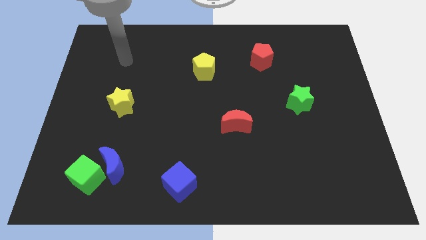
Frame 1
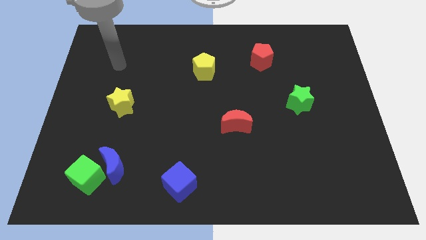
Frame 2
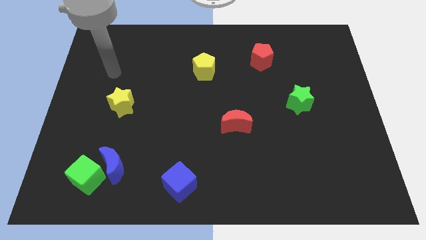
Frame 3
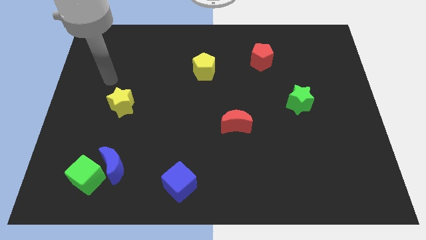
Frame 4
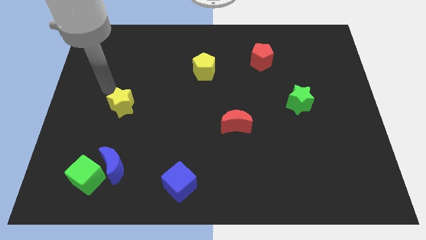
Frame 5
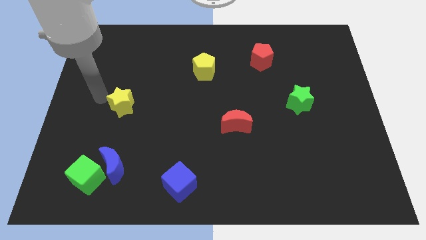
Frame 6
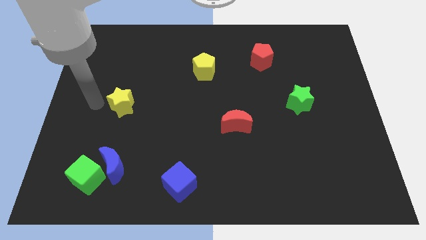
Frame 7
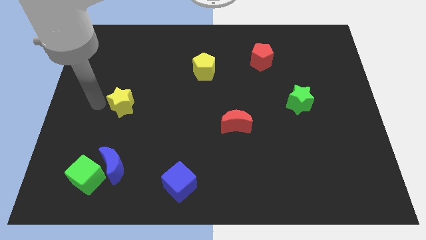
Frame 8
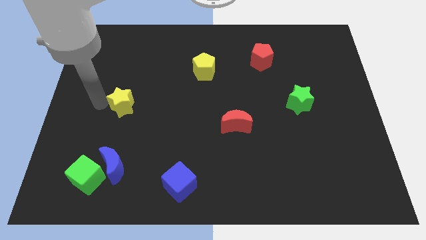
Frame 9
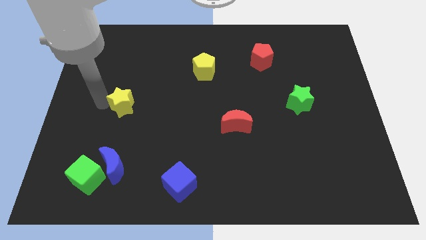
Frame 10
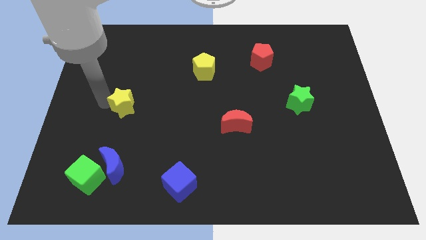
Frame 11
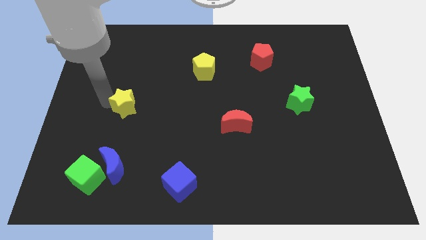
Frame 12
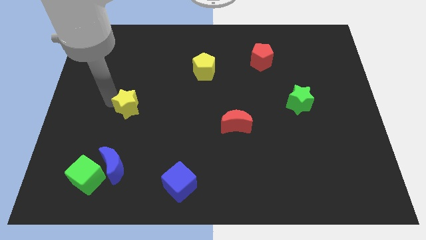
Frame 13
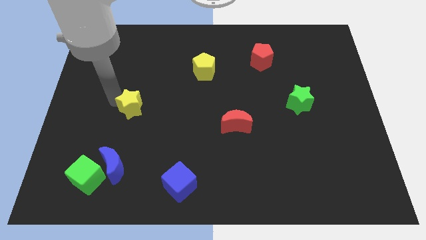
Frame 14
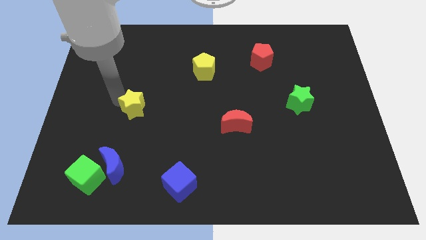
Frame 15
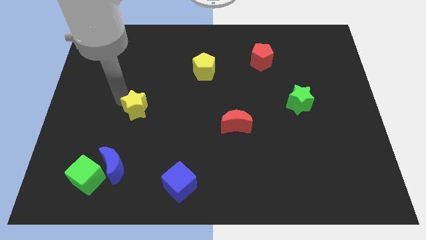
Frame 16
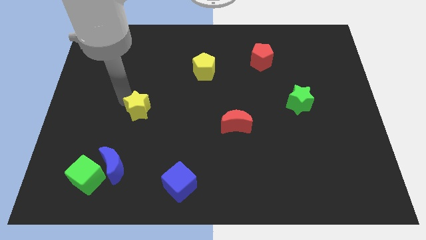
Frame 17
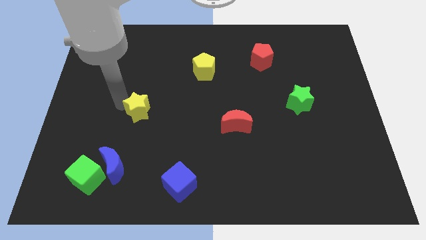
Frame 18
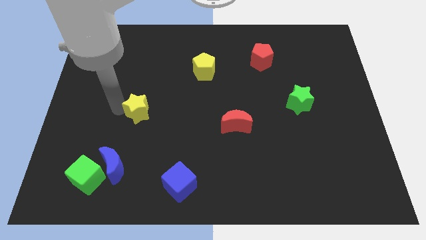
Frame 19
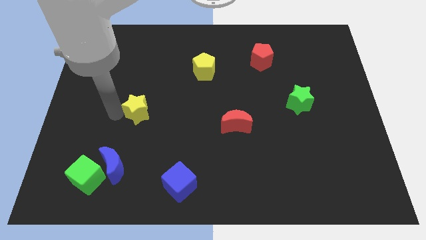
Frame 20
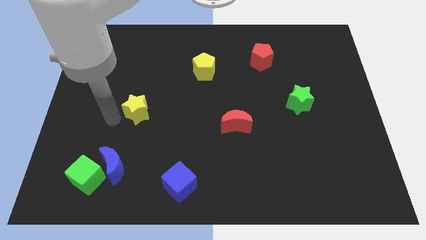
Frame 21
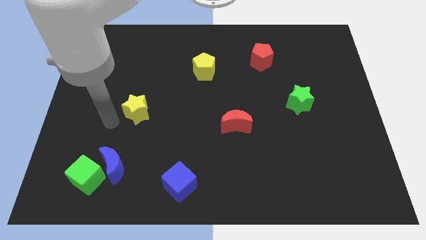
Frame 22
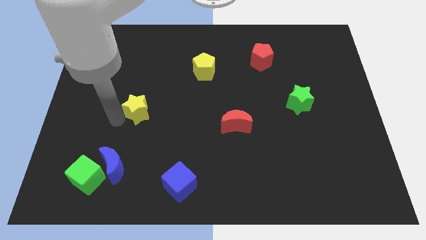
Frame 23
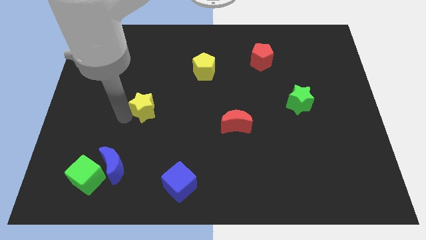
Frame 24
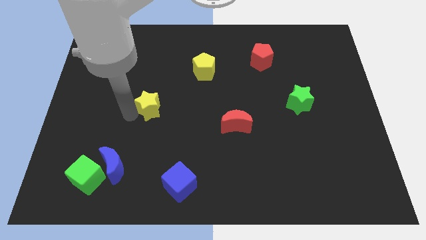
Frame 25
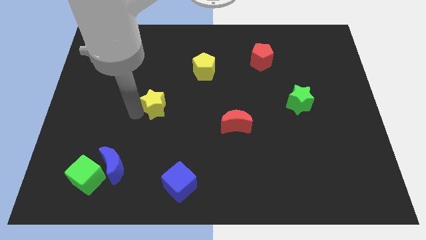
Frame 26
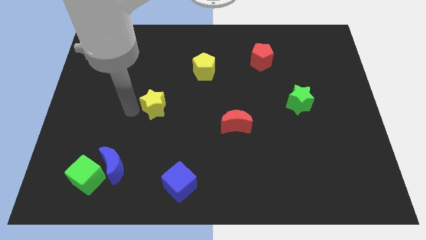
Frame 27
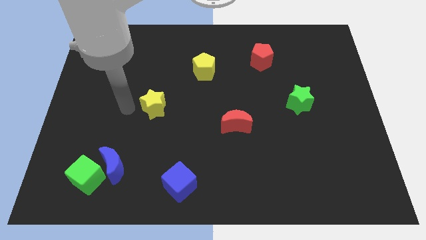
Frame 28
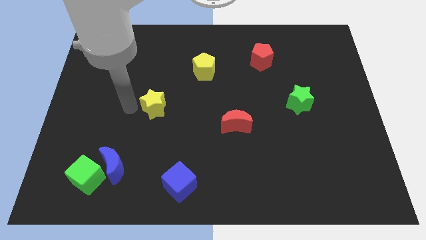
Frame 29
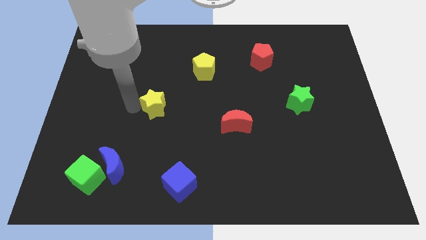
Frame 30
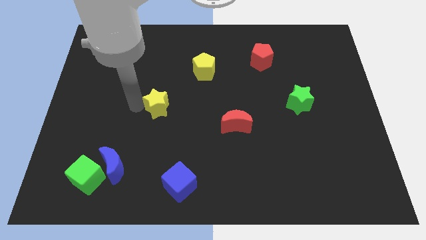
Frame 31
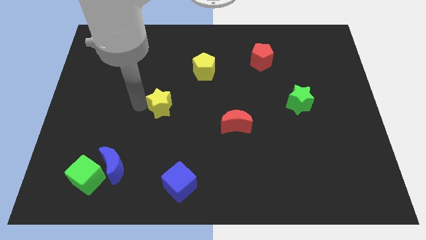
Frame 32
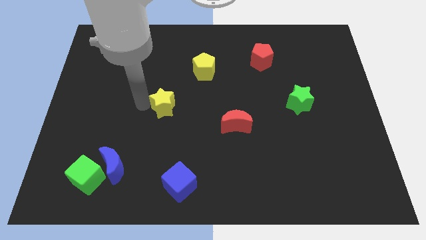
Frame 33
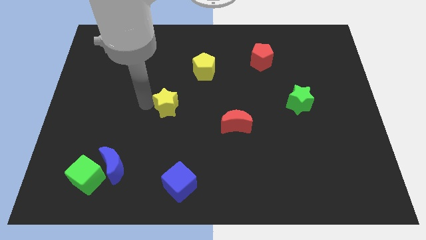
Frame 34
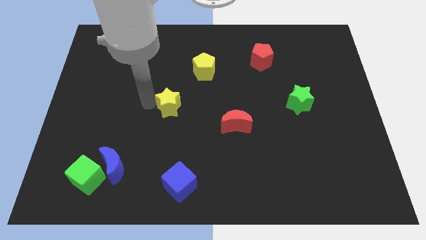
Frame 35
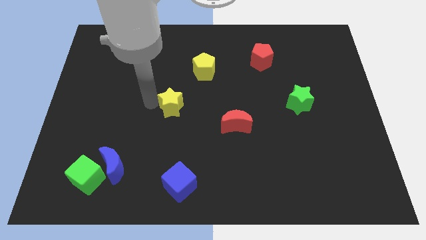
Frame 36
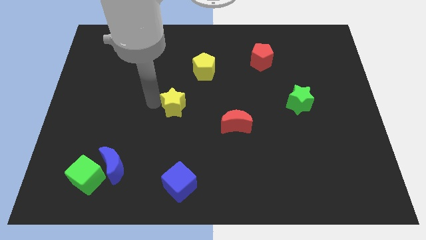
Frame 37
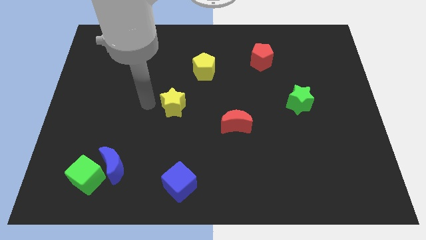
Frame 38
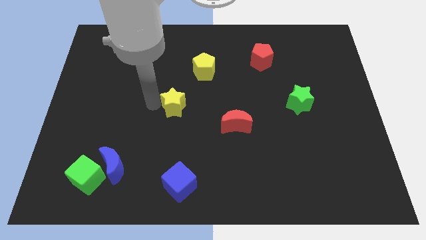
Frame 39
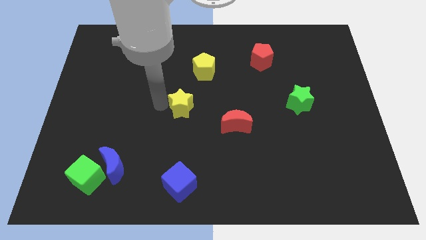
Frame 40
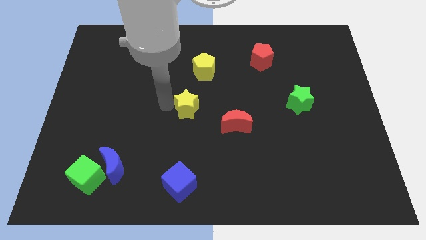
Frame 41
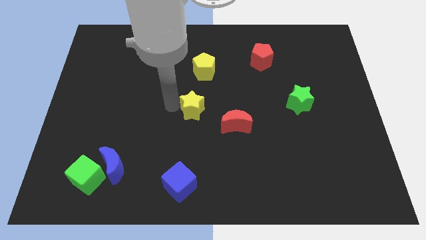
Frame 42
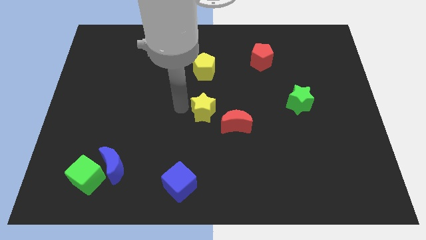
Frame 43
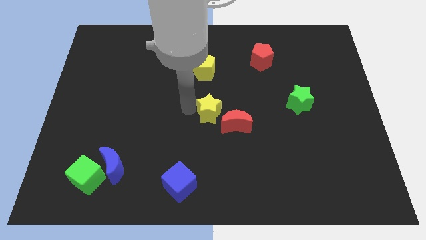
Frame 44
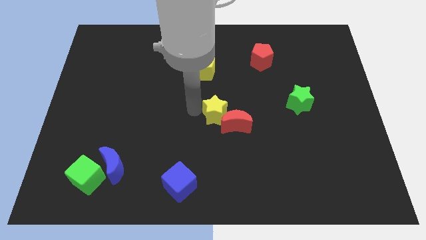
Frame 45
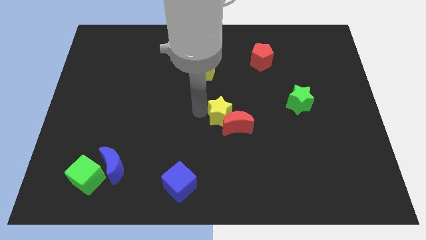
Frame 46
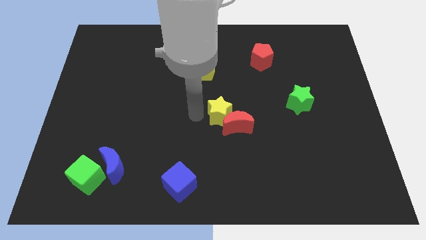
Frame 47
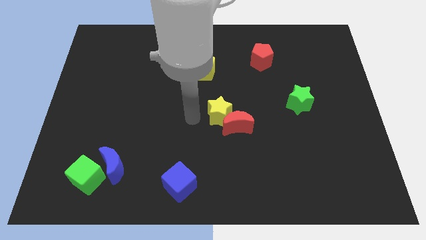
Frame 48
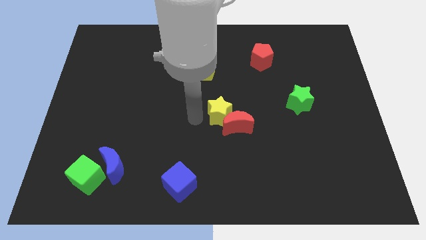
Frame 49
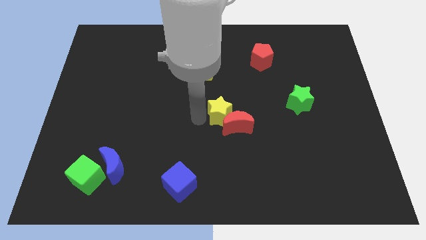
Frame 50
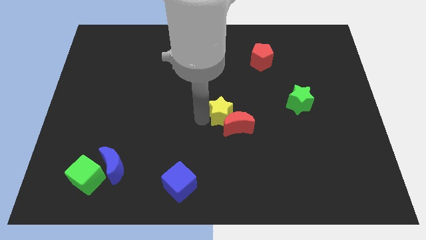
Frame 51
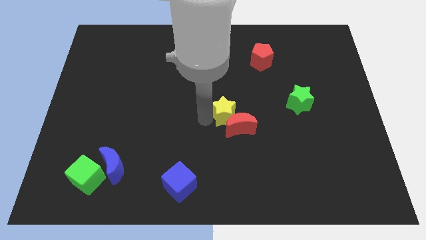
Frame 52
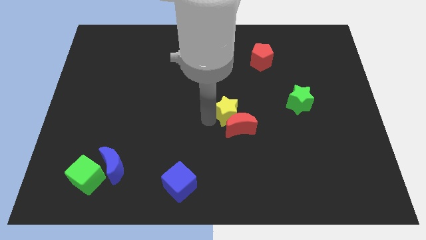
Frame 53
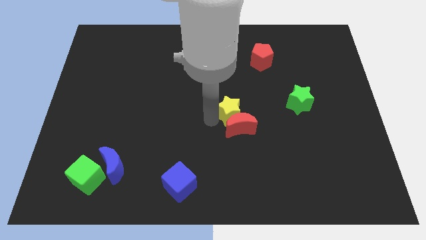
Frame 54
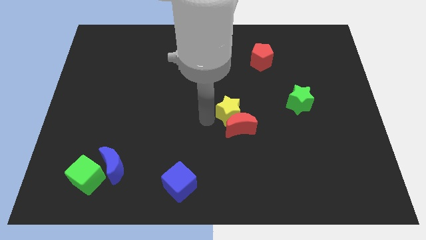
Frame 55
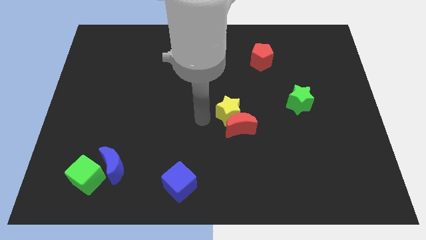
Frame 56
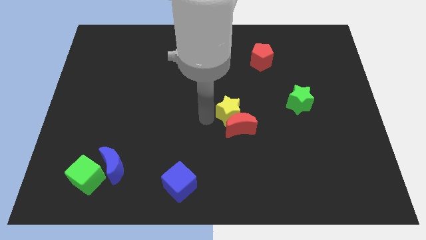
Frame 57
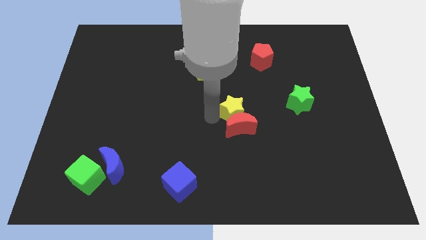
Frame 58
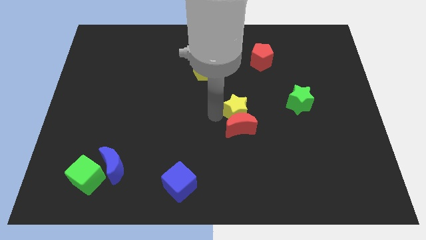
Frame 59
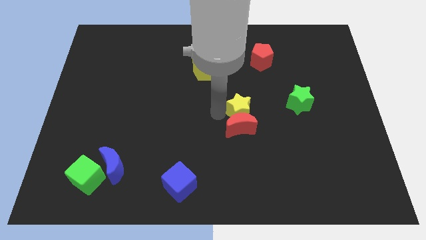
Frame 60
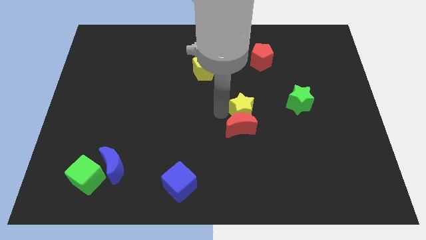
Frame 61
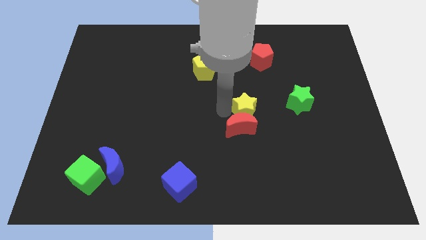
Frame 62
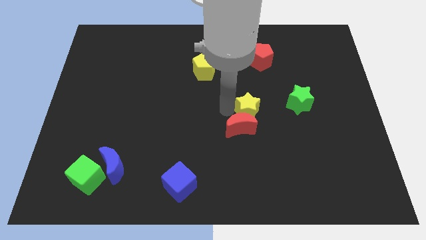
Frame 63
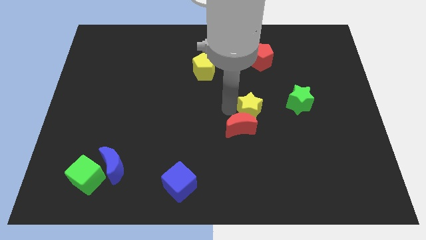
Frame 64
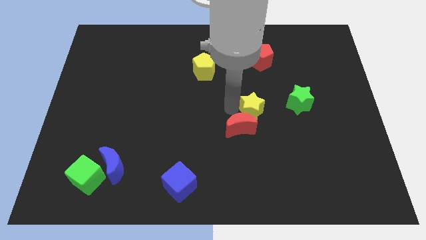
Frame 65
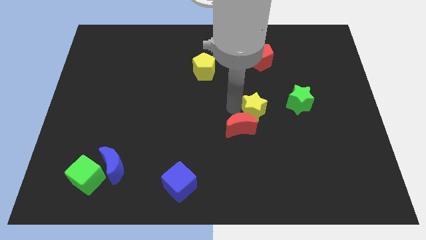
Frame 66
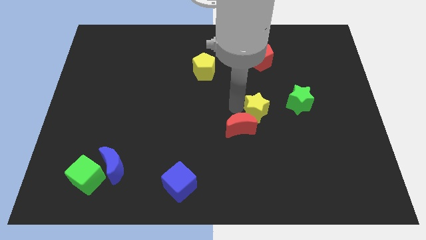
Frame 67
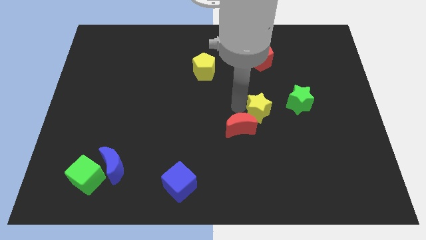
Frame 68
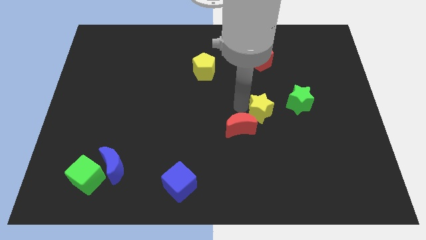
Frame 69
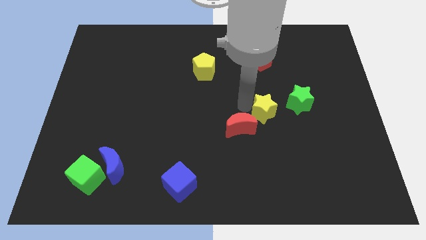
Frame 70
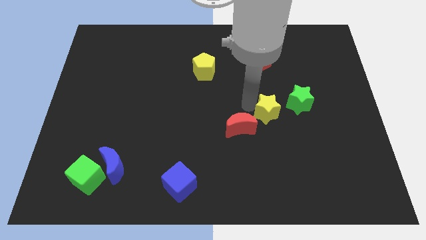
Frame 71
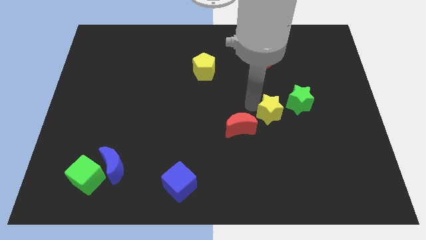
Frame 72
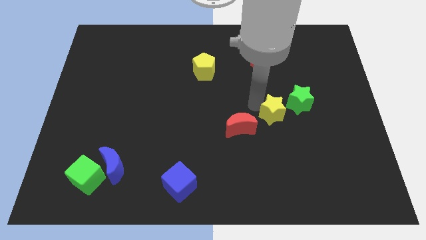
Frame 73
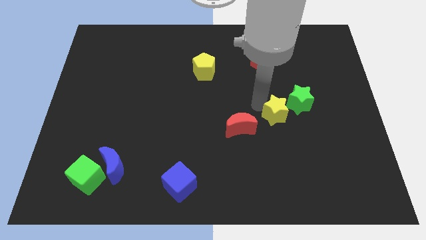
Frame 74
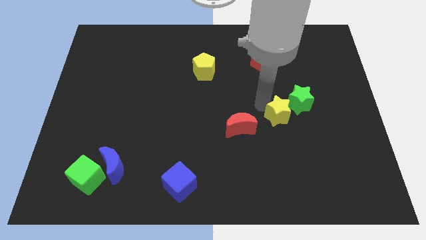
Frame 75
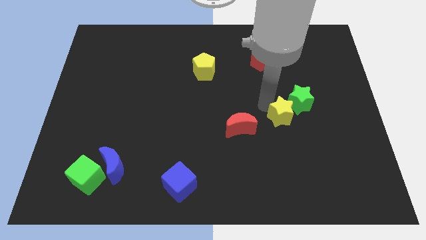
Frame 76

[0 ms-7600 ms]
move the yellow star to the bottom of the green star

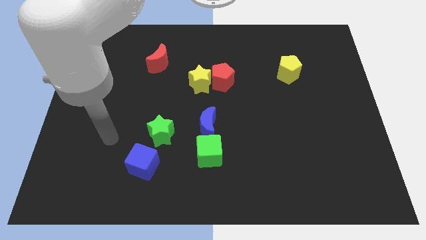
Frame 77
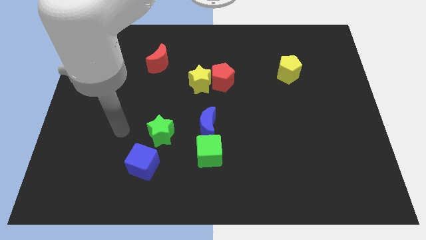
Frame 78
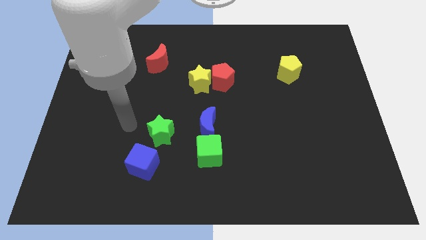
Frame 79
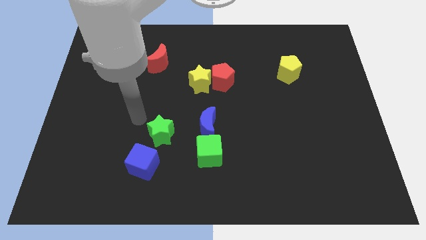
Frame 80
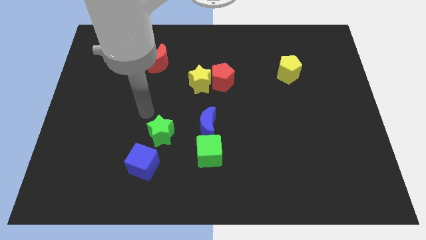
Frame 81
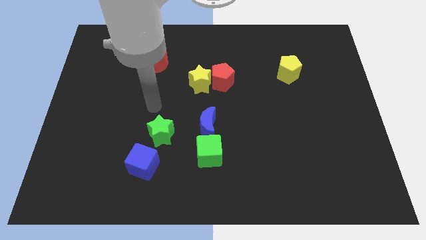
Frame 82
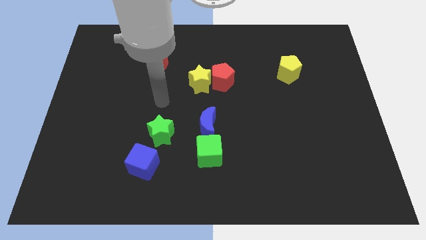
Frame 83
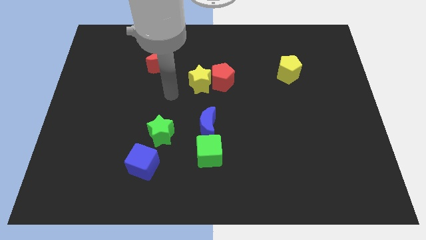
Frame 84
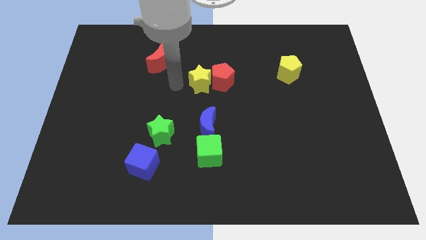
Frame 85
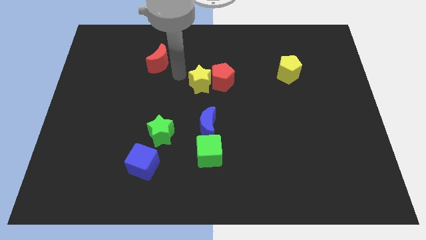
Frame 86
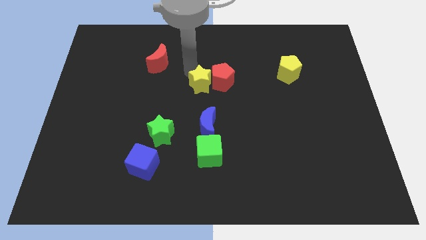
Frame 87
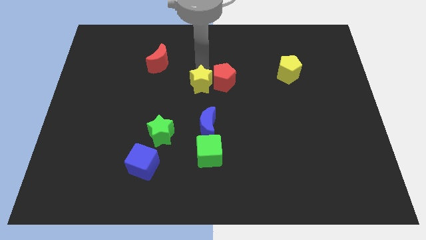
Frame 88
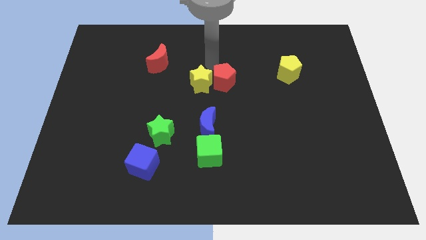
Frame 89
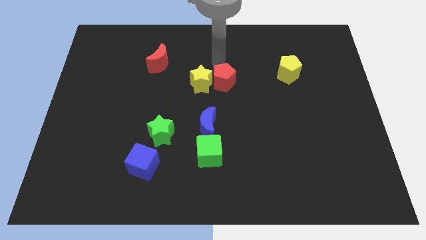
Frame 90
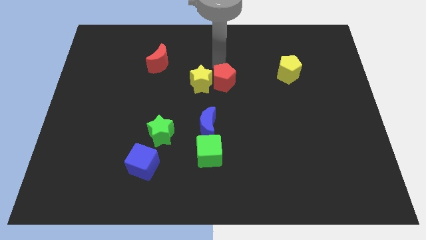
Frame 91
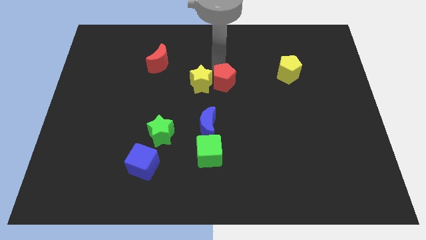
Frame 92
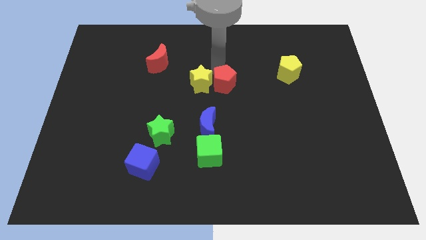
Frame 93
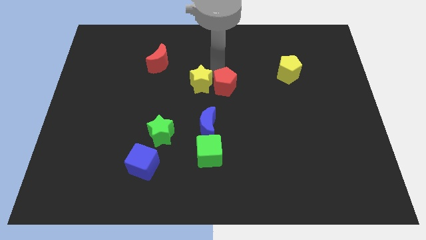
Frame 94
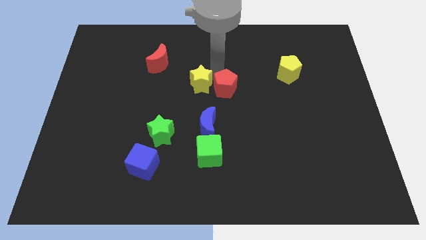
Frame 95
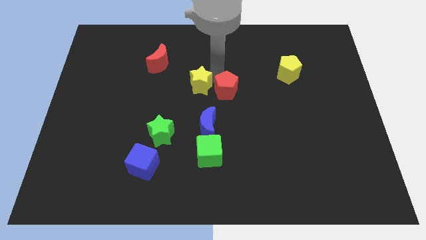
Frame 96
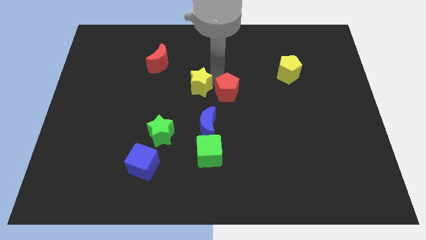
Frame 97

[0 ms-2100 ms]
slide the red pentagon to the top right of the blue moon
